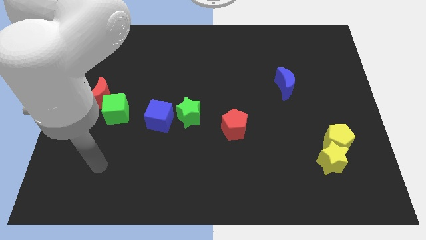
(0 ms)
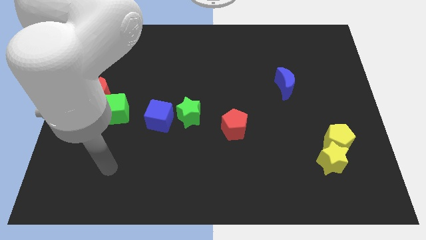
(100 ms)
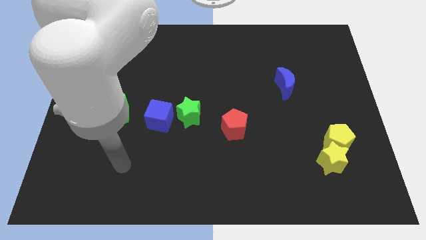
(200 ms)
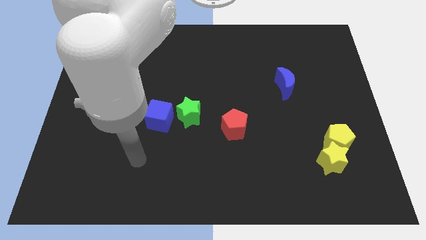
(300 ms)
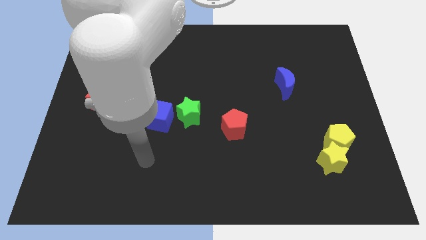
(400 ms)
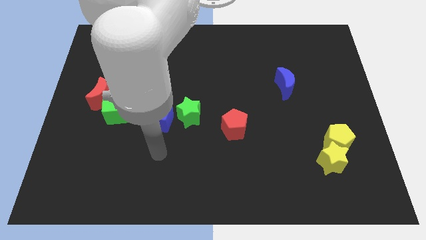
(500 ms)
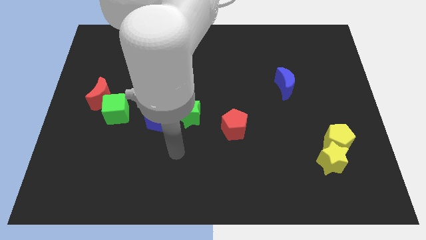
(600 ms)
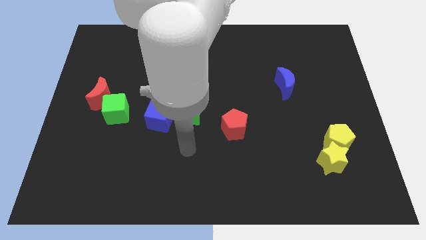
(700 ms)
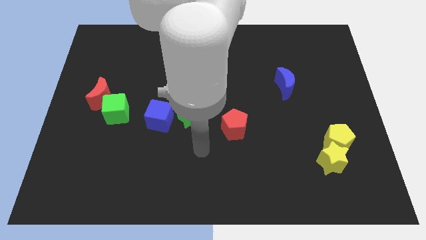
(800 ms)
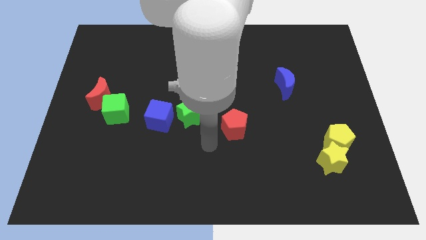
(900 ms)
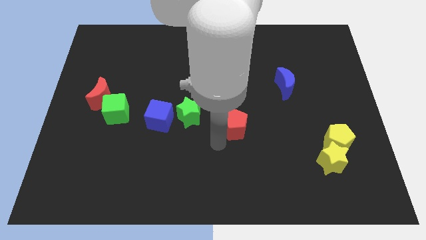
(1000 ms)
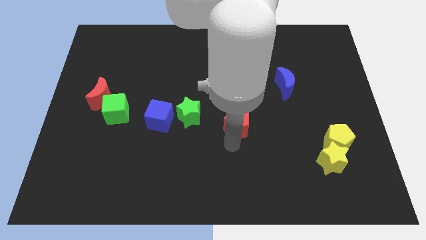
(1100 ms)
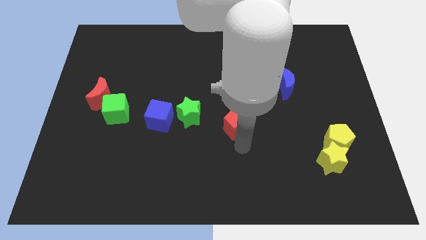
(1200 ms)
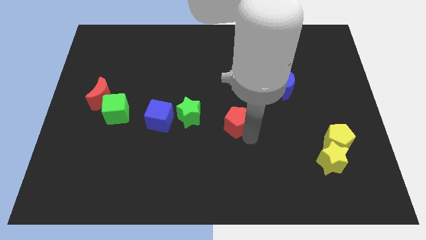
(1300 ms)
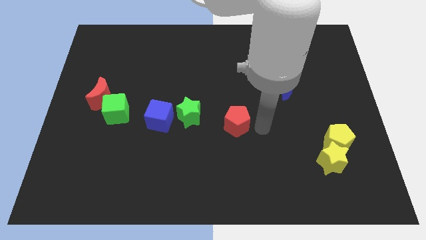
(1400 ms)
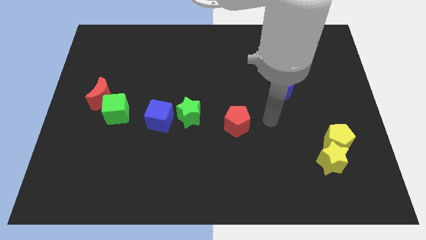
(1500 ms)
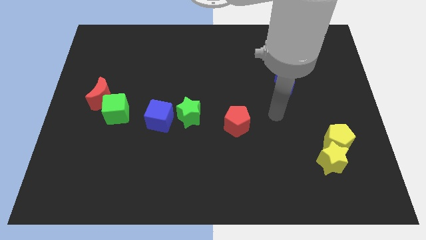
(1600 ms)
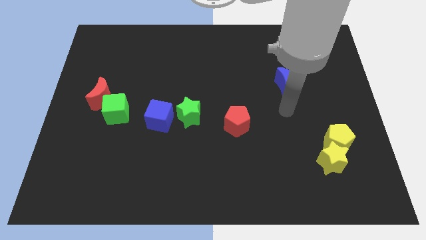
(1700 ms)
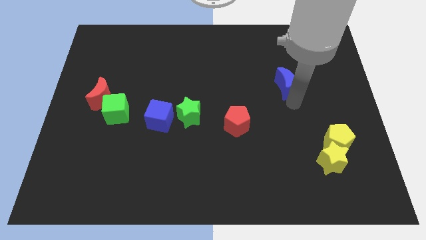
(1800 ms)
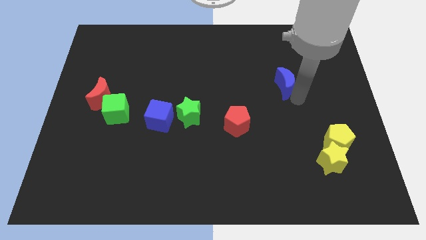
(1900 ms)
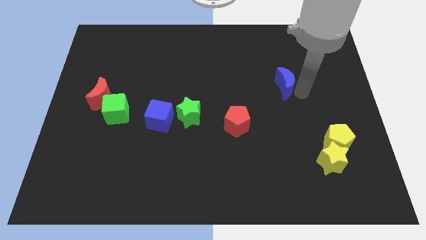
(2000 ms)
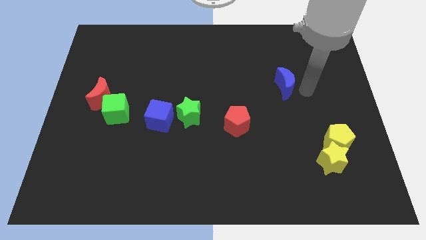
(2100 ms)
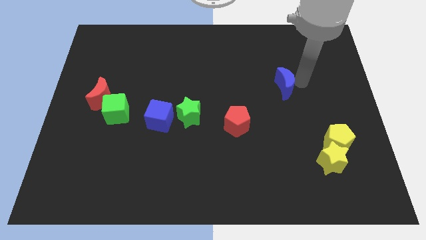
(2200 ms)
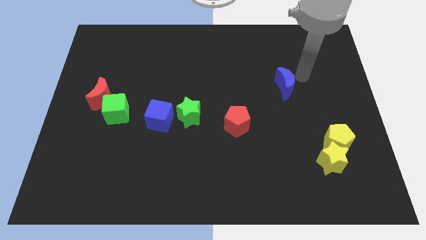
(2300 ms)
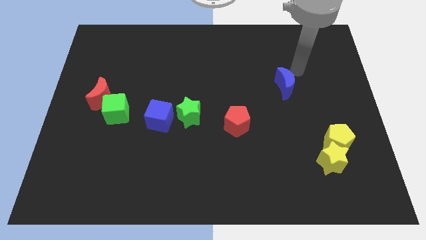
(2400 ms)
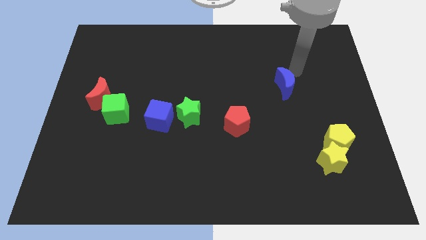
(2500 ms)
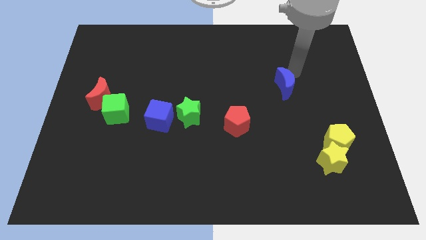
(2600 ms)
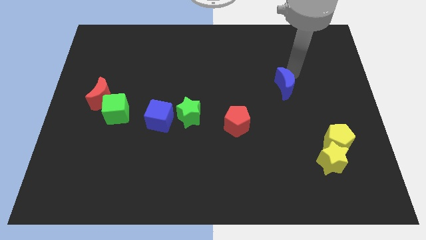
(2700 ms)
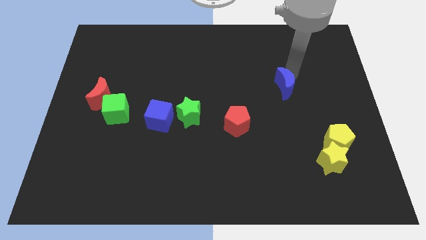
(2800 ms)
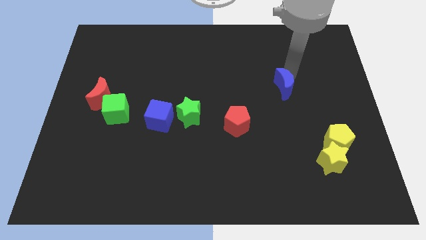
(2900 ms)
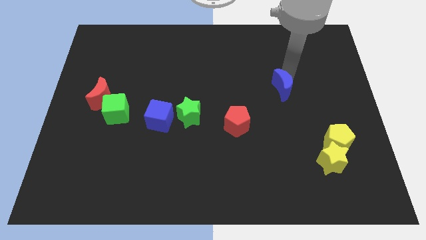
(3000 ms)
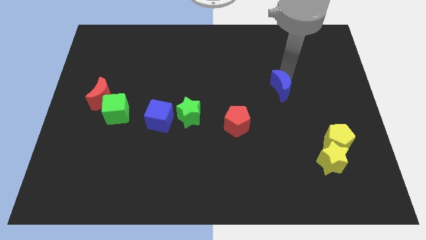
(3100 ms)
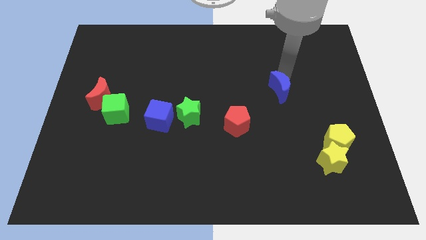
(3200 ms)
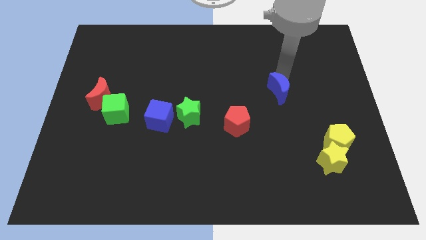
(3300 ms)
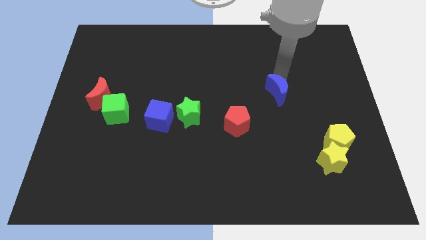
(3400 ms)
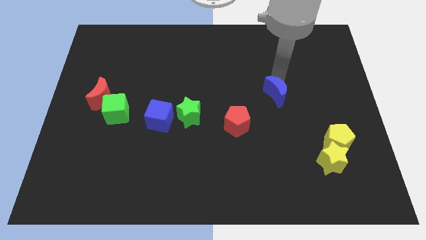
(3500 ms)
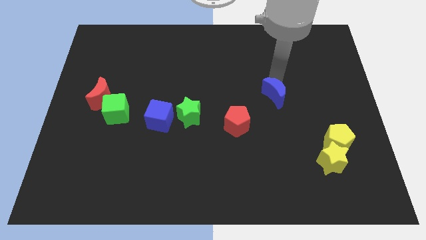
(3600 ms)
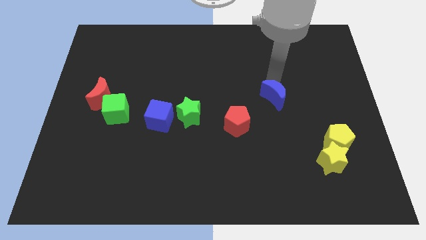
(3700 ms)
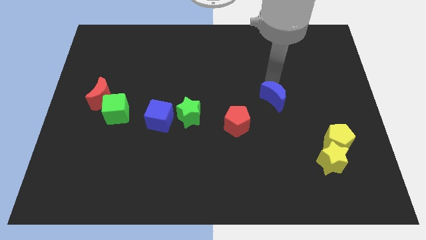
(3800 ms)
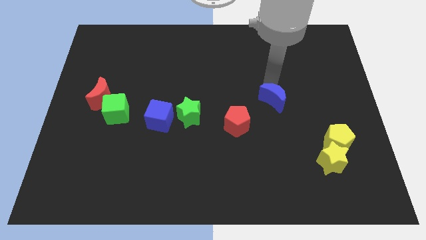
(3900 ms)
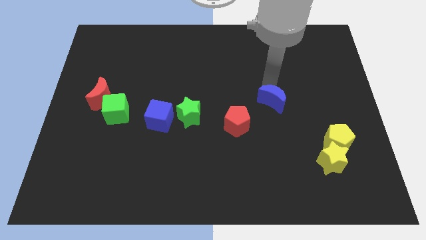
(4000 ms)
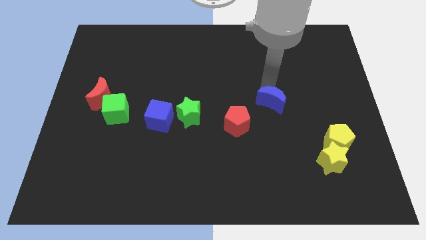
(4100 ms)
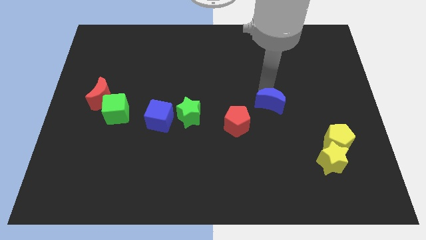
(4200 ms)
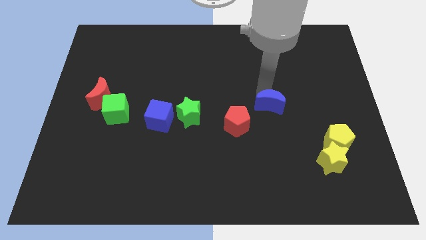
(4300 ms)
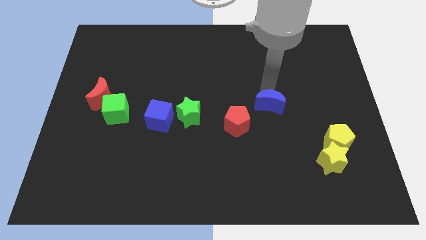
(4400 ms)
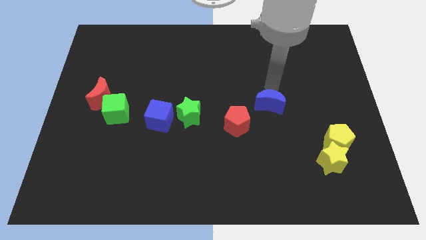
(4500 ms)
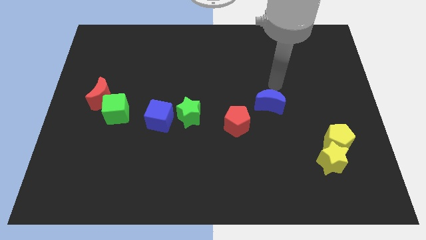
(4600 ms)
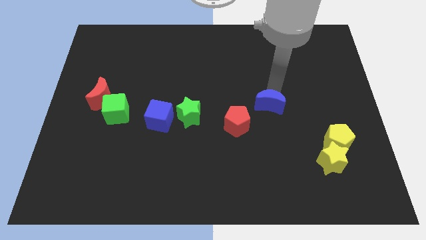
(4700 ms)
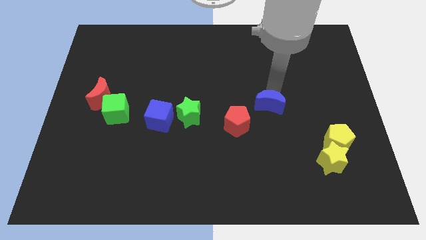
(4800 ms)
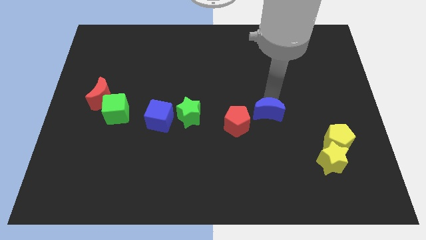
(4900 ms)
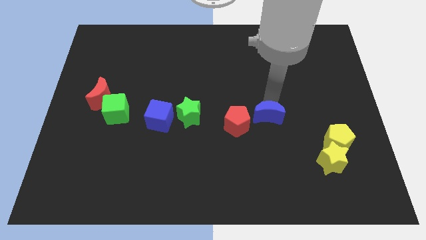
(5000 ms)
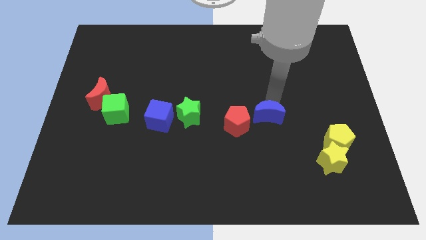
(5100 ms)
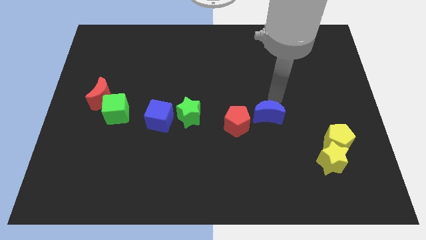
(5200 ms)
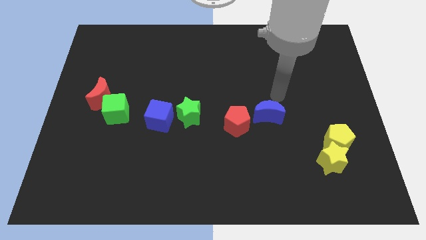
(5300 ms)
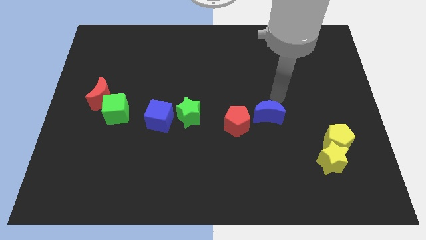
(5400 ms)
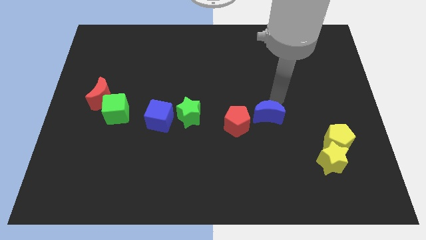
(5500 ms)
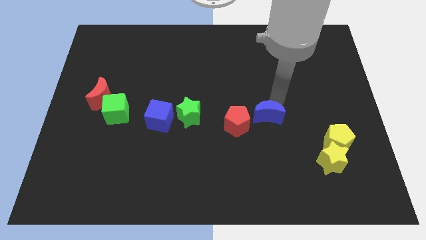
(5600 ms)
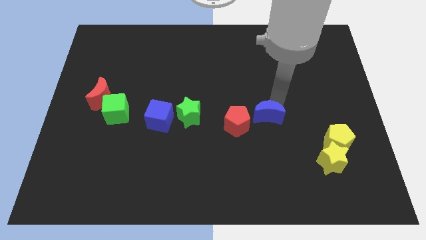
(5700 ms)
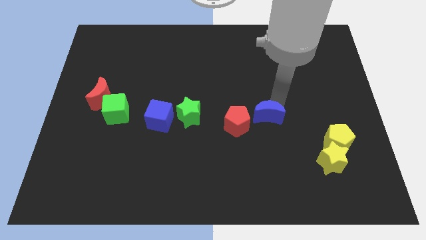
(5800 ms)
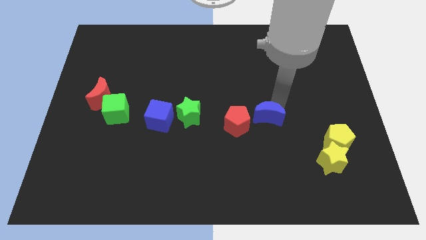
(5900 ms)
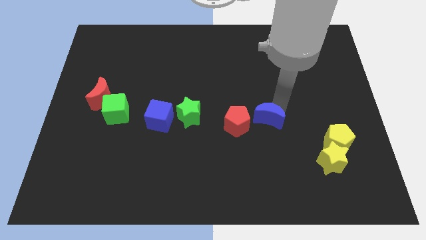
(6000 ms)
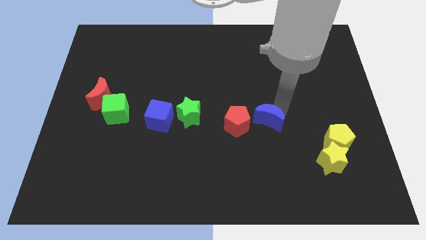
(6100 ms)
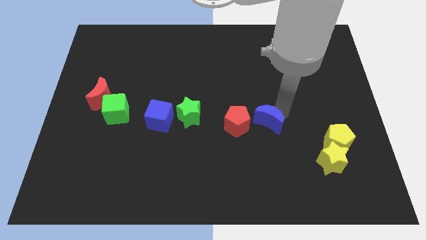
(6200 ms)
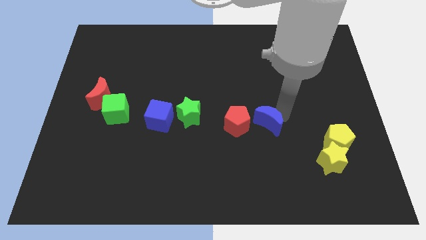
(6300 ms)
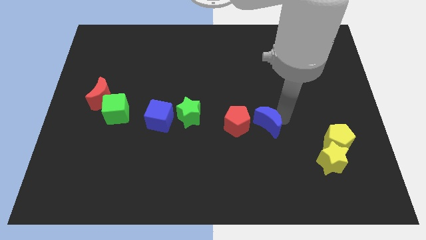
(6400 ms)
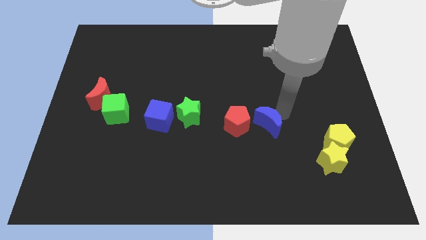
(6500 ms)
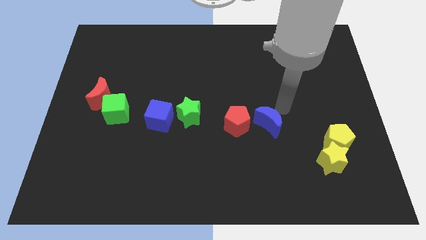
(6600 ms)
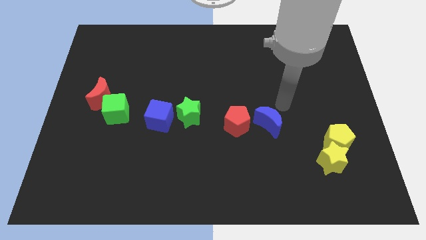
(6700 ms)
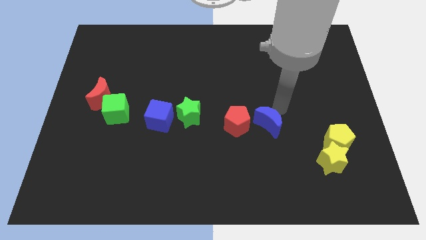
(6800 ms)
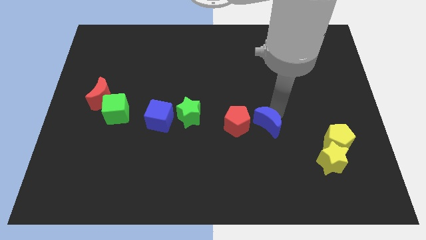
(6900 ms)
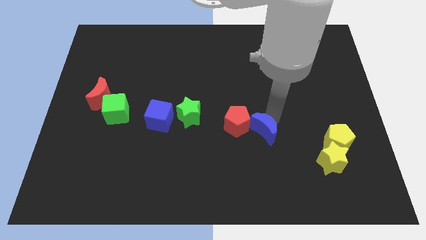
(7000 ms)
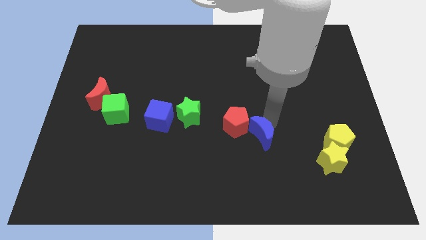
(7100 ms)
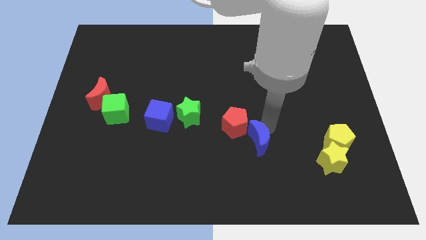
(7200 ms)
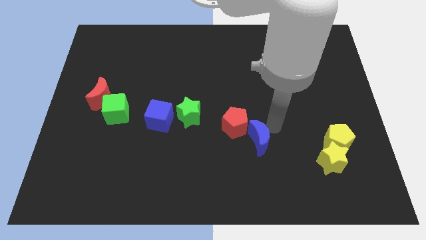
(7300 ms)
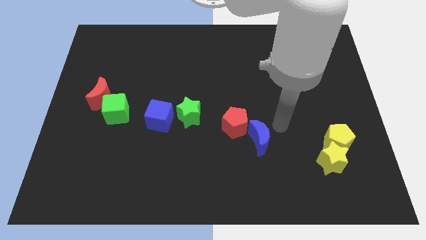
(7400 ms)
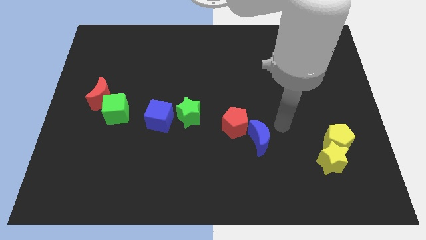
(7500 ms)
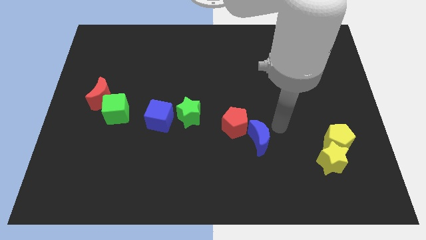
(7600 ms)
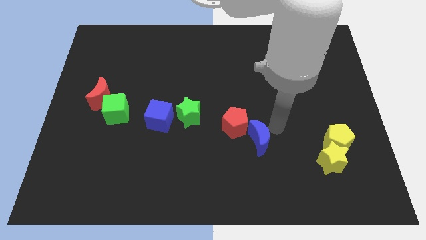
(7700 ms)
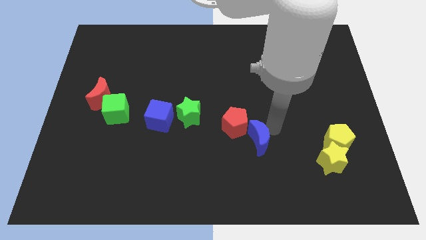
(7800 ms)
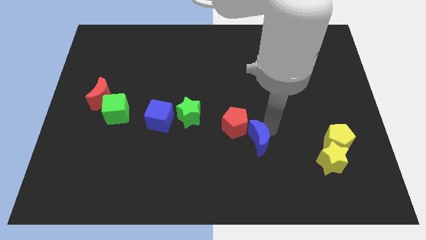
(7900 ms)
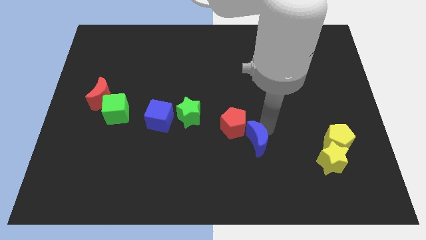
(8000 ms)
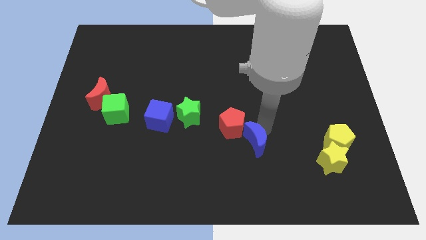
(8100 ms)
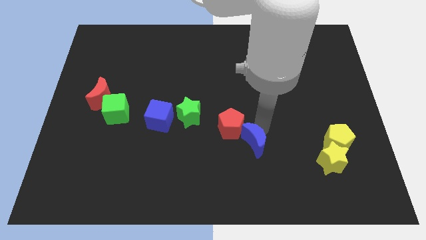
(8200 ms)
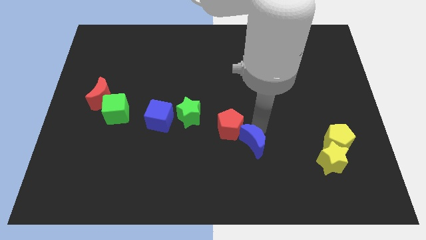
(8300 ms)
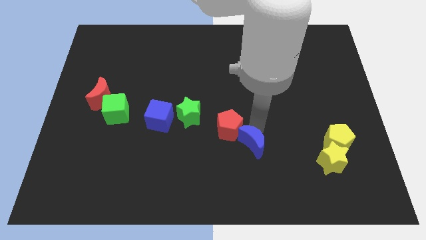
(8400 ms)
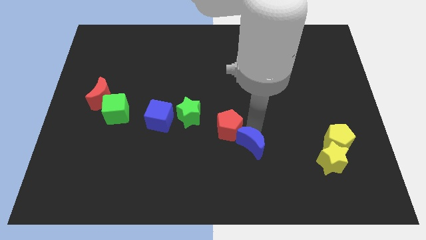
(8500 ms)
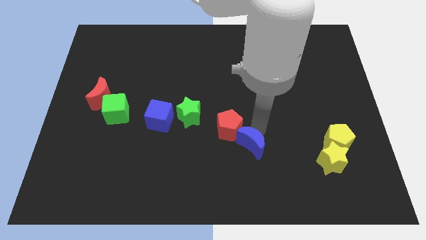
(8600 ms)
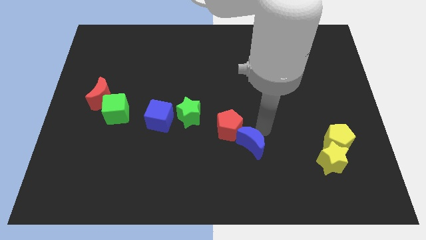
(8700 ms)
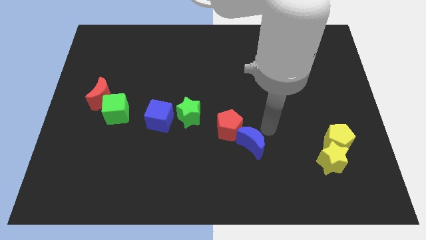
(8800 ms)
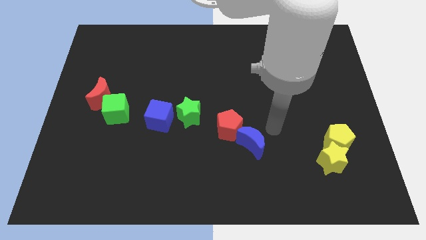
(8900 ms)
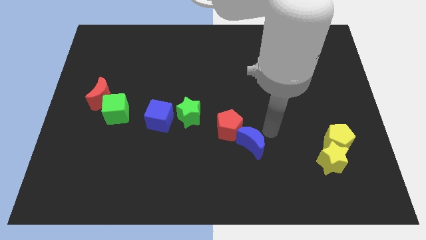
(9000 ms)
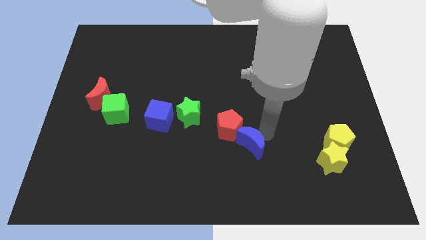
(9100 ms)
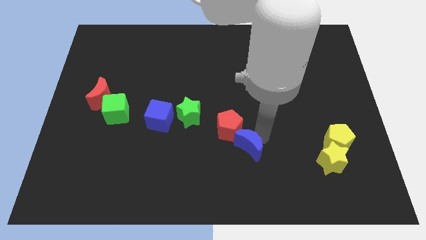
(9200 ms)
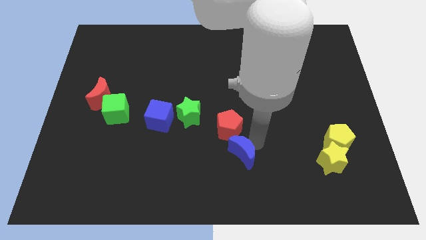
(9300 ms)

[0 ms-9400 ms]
move the blue moon downwards and left diagonally
